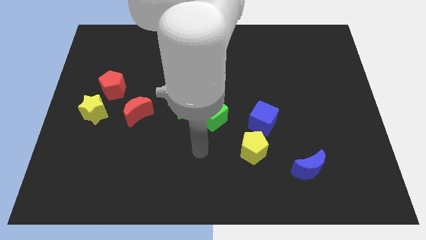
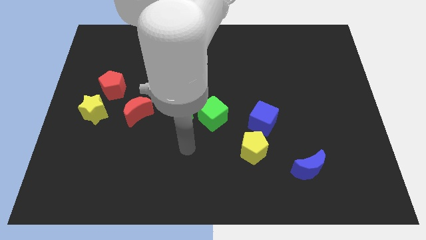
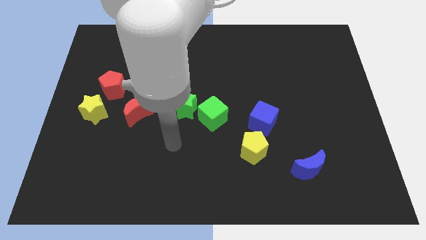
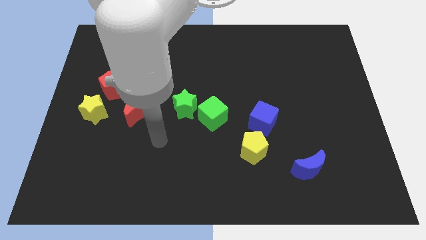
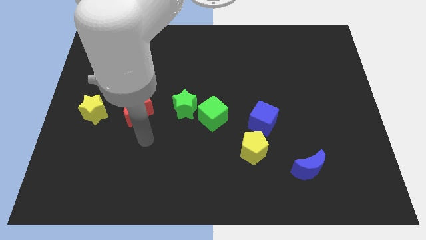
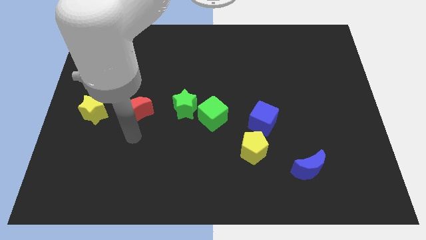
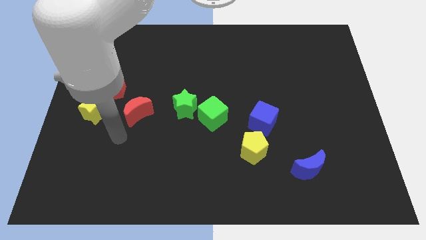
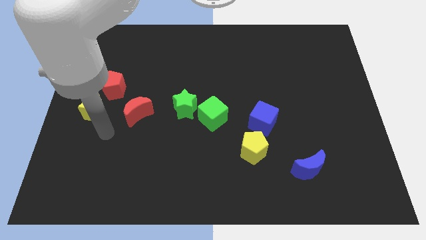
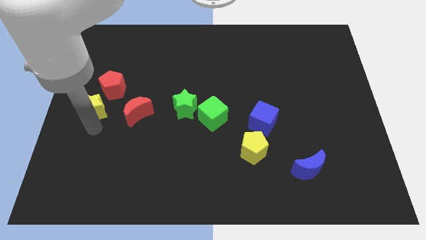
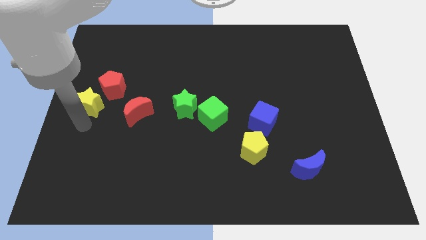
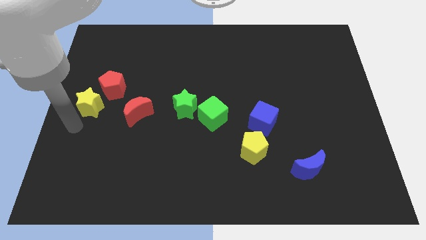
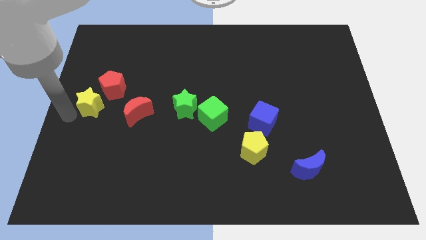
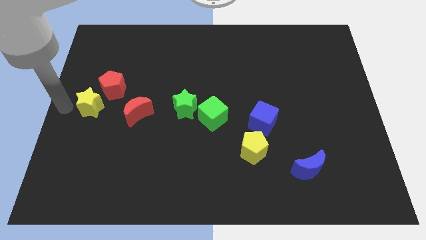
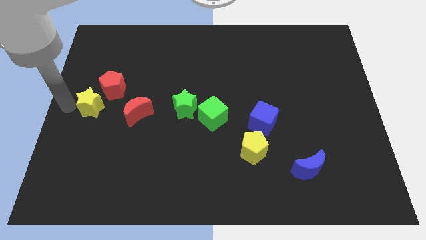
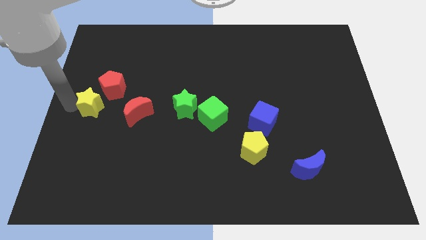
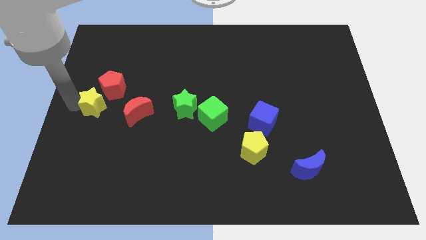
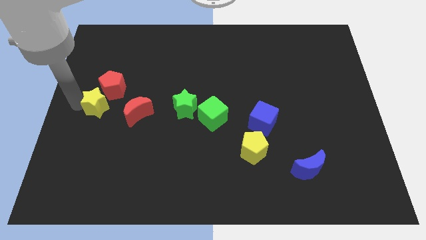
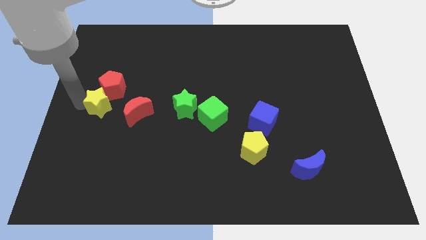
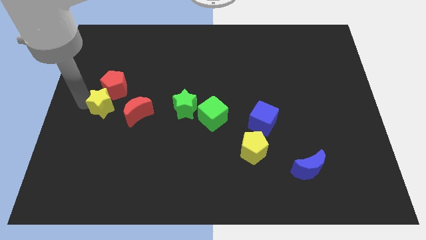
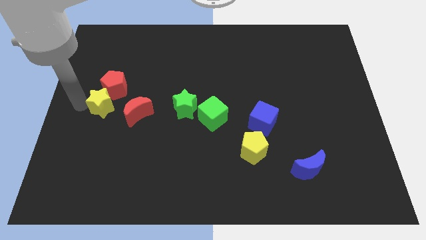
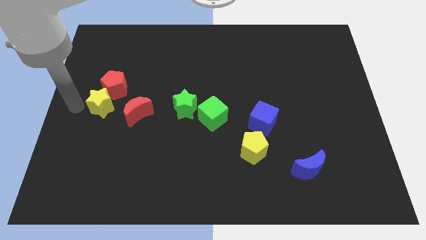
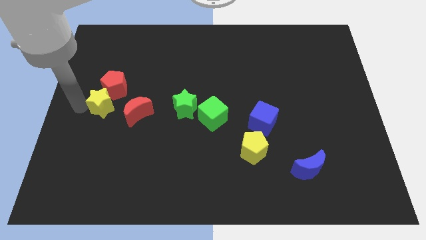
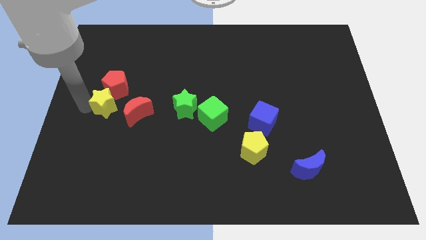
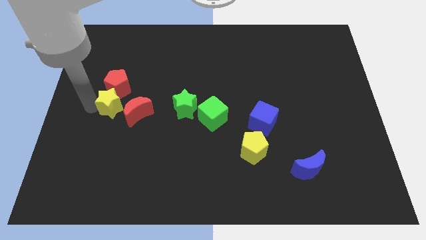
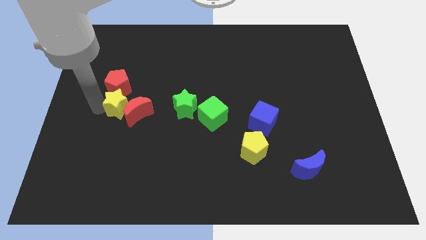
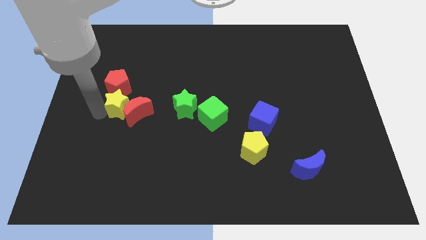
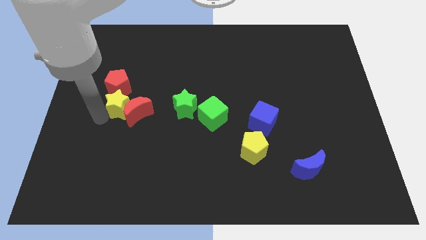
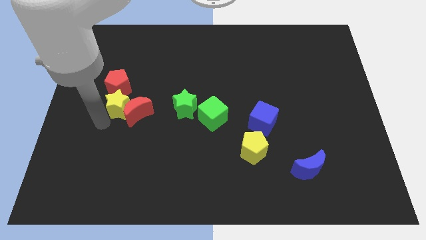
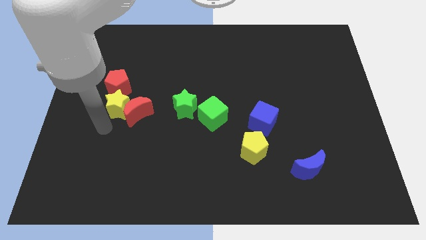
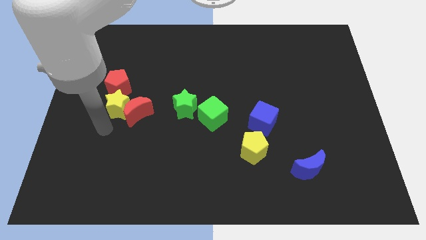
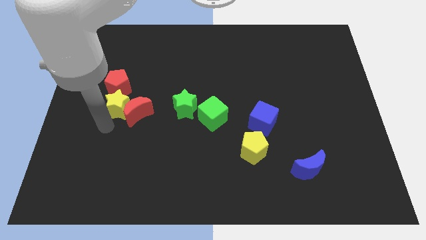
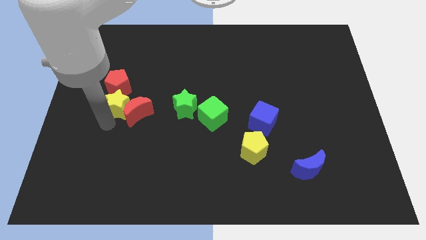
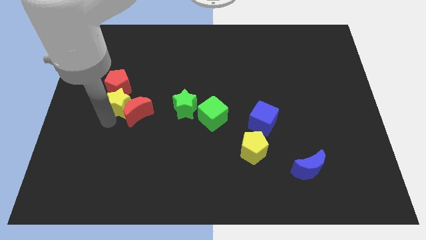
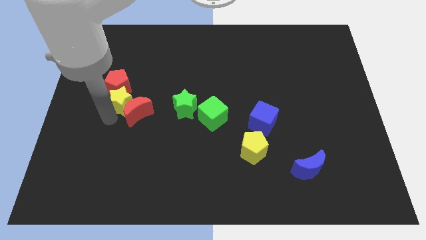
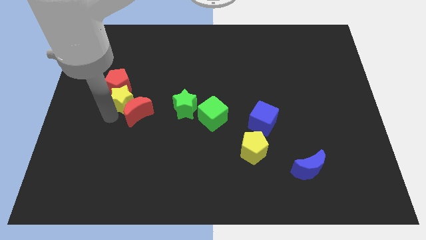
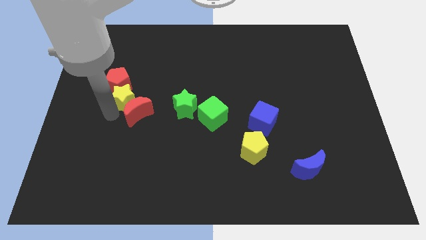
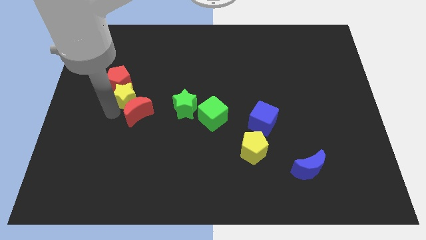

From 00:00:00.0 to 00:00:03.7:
slide the yellow star a bit diagonally up and right

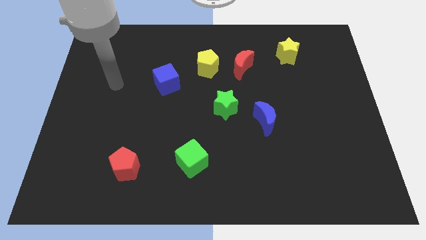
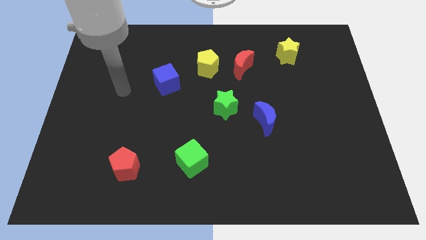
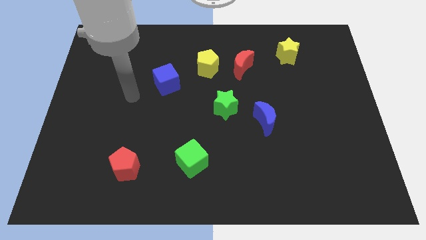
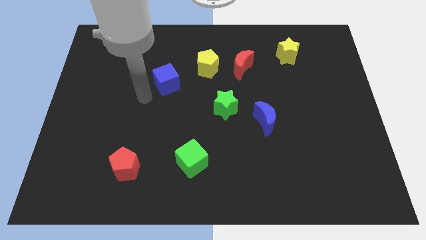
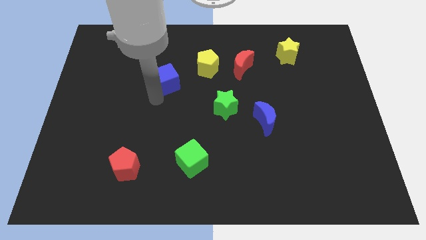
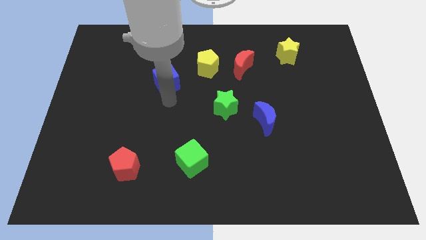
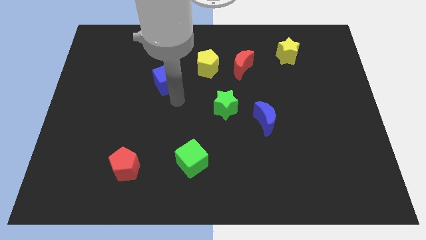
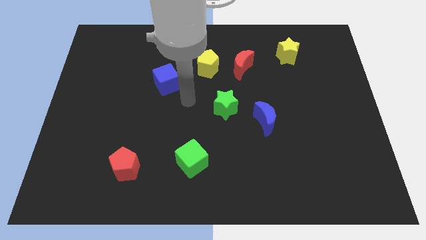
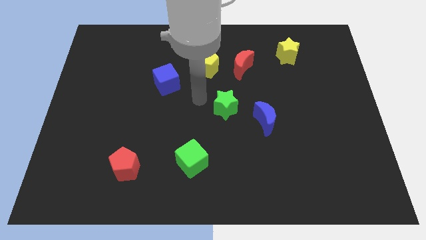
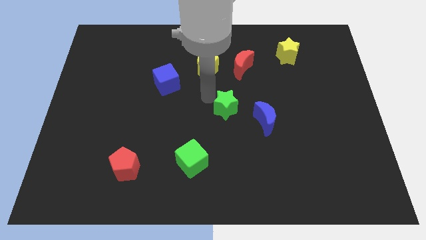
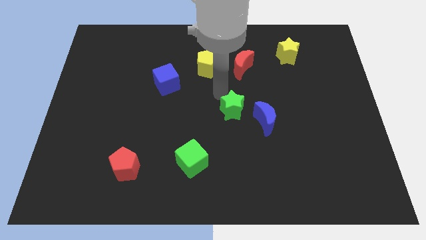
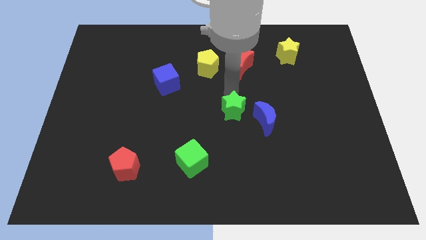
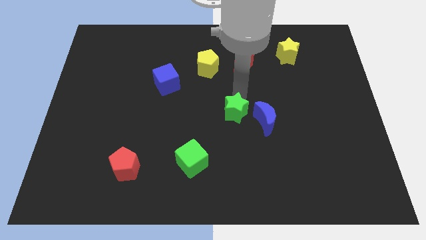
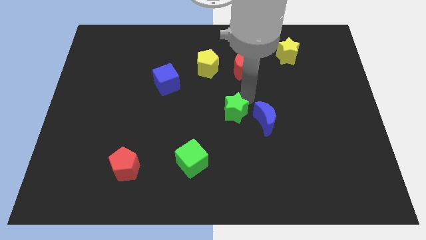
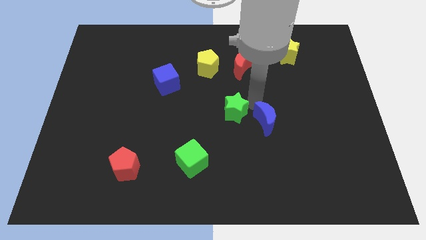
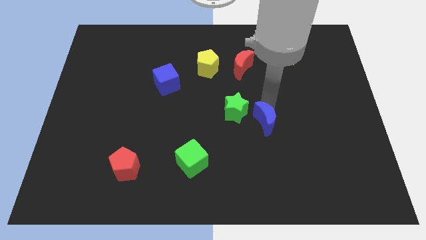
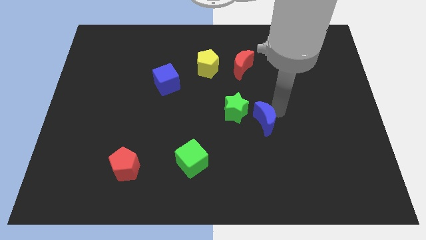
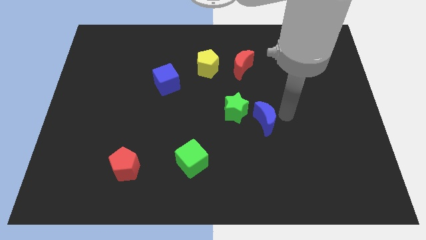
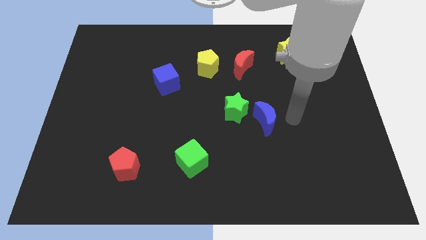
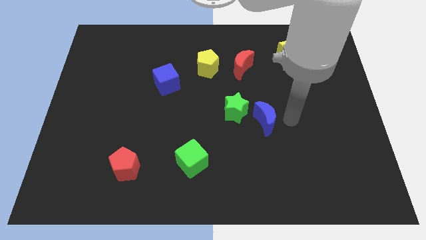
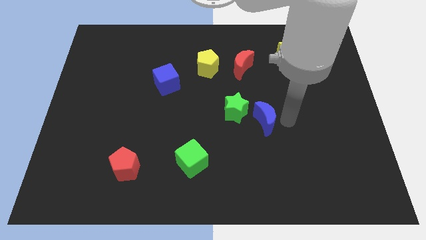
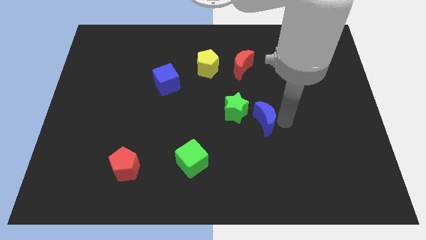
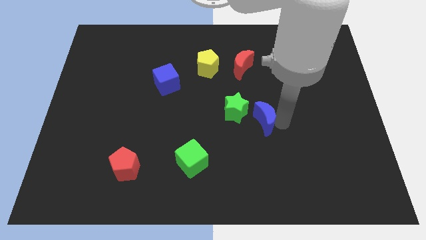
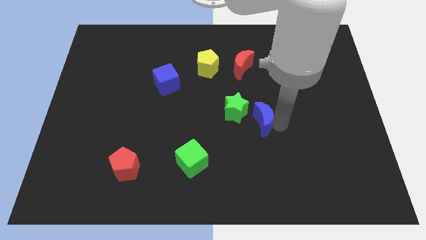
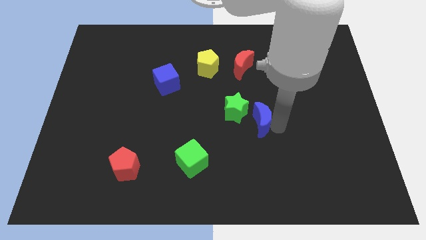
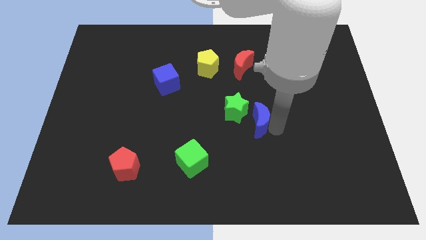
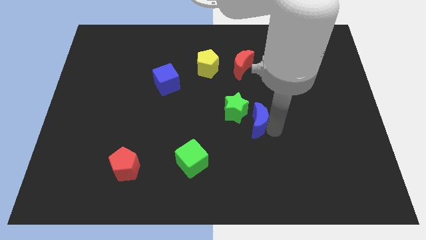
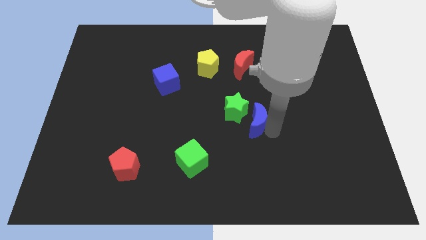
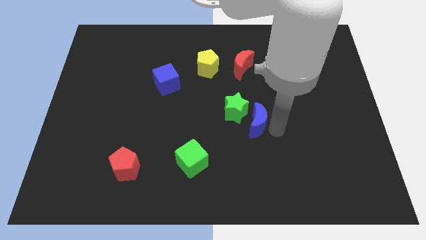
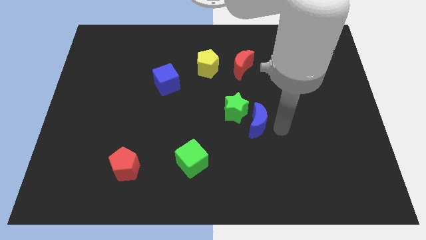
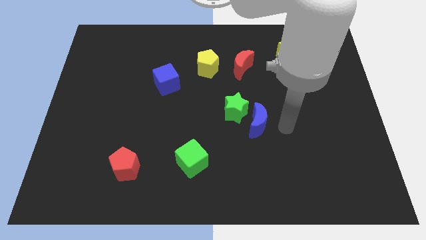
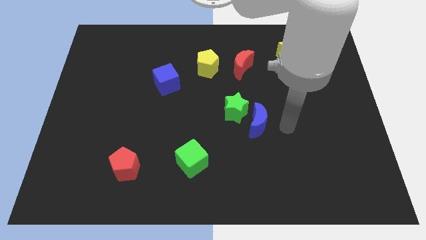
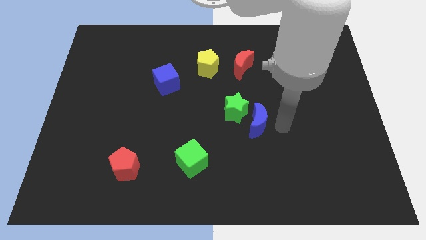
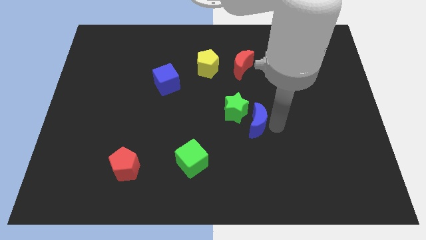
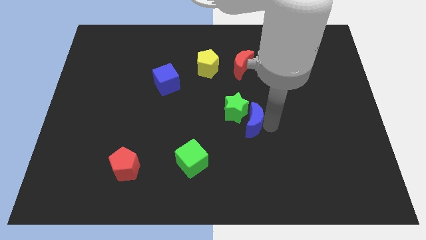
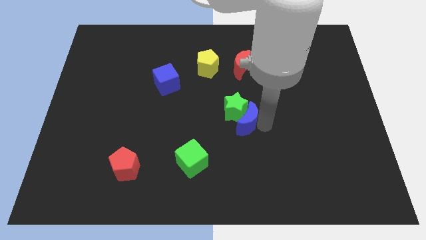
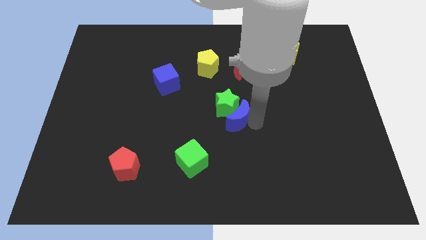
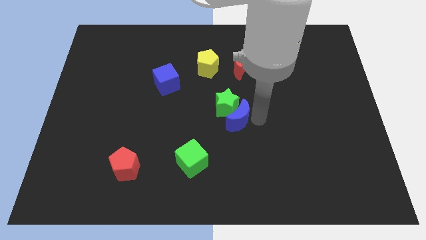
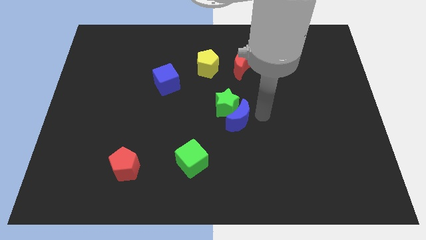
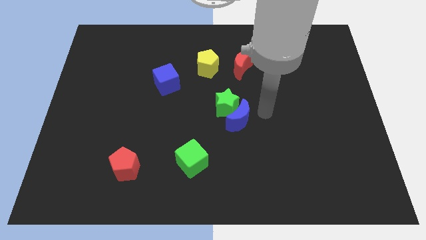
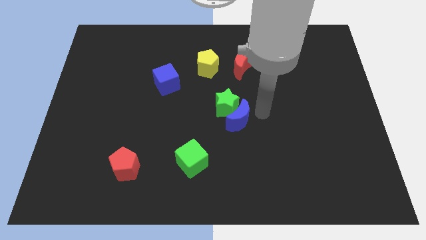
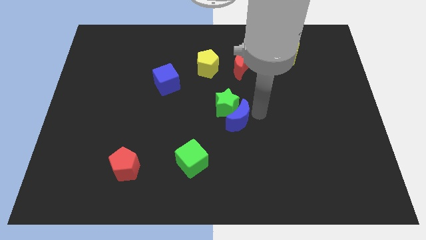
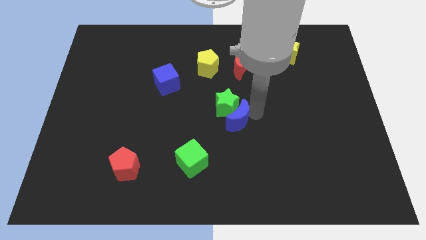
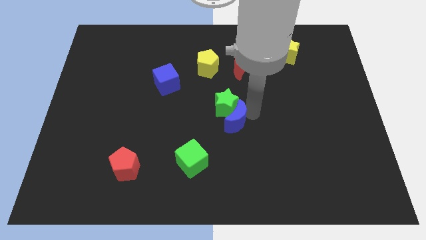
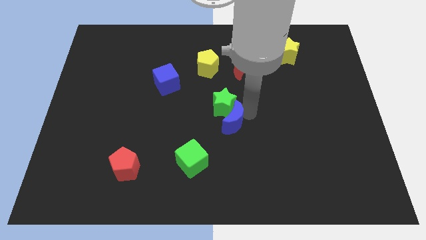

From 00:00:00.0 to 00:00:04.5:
slightly slide the blue moon to the left
